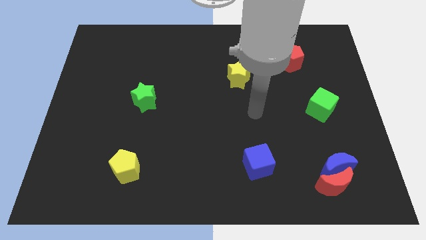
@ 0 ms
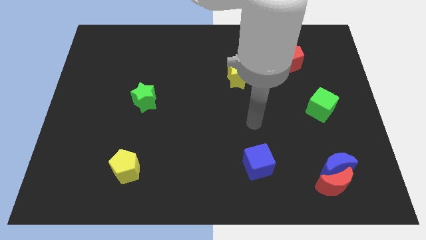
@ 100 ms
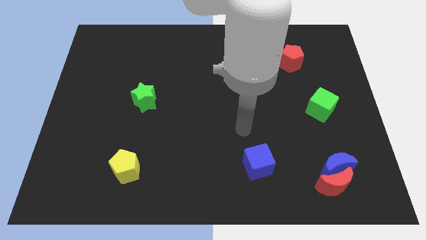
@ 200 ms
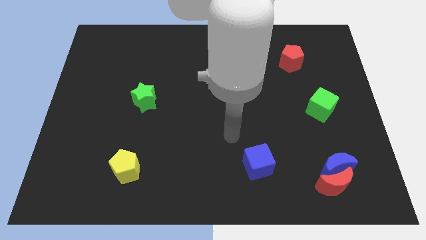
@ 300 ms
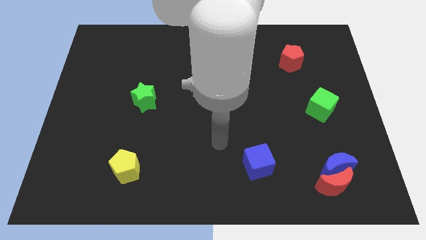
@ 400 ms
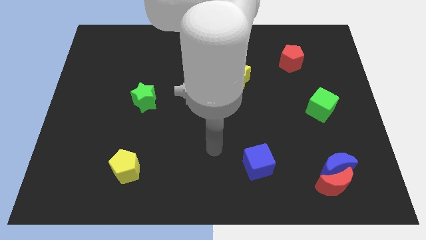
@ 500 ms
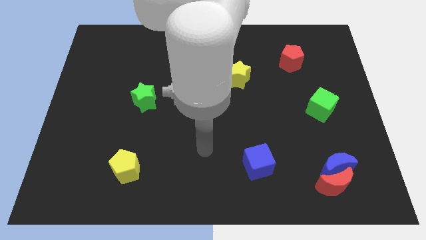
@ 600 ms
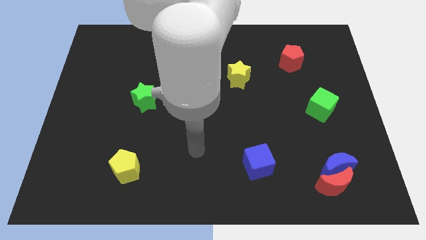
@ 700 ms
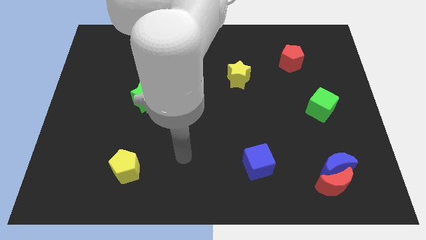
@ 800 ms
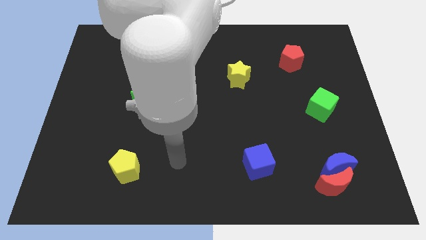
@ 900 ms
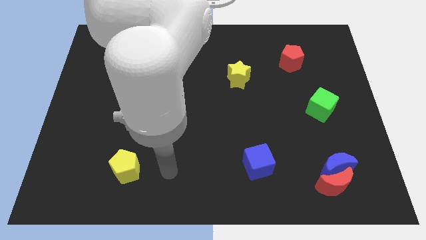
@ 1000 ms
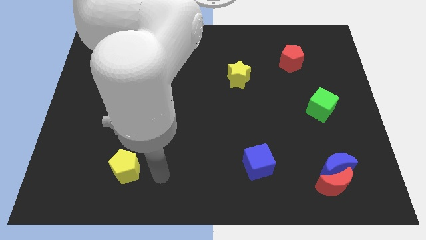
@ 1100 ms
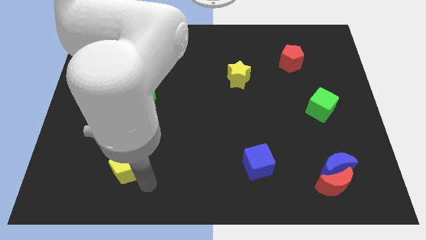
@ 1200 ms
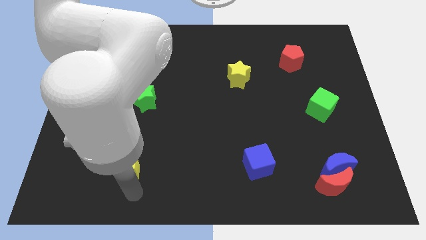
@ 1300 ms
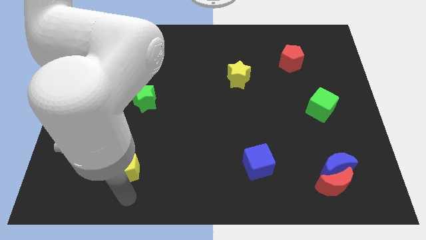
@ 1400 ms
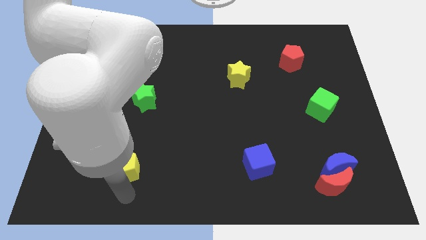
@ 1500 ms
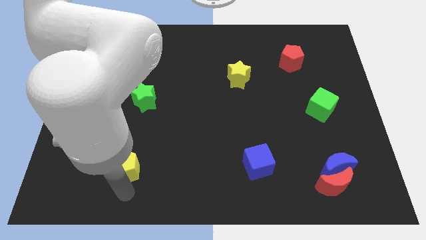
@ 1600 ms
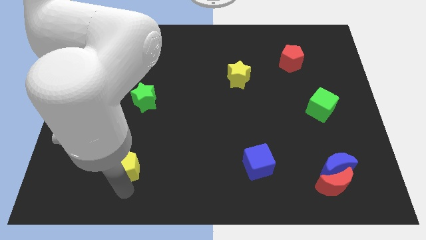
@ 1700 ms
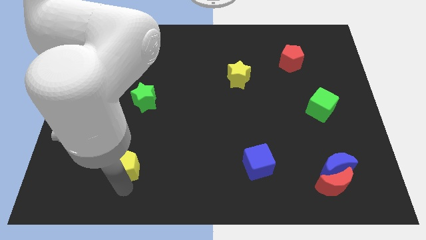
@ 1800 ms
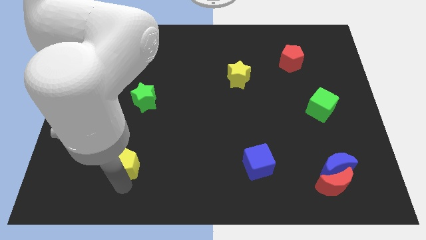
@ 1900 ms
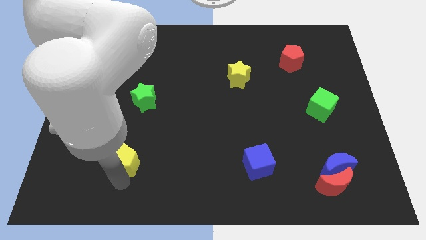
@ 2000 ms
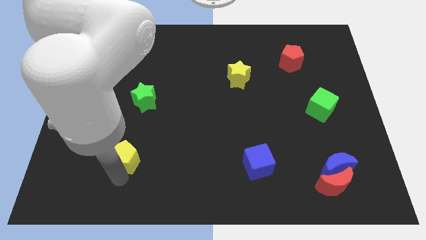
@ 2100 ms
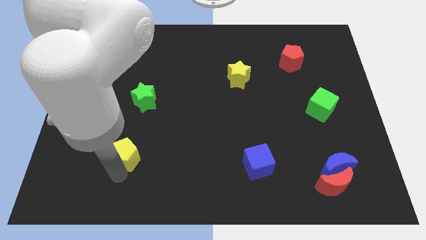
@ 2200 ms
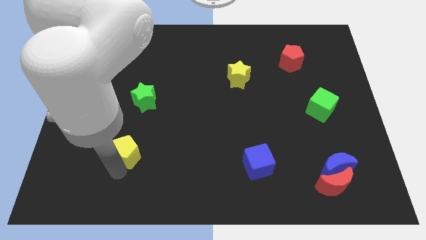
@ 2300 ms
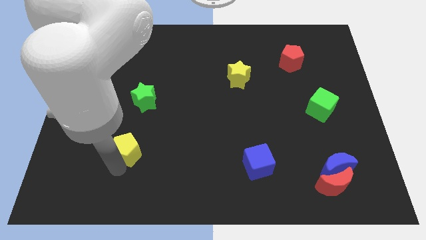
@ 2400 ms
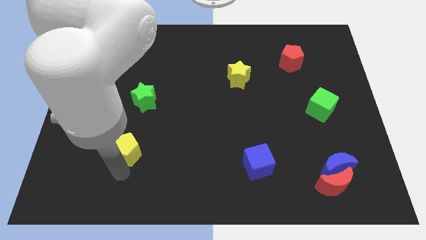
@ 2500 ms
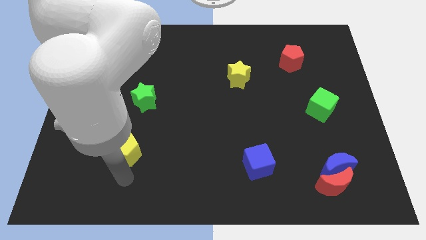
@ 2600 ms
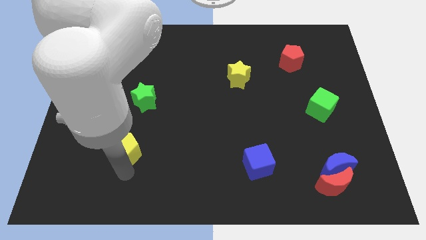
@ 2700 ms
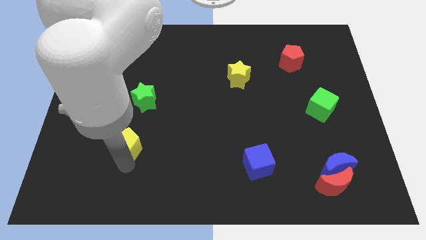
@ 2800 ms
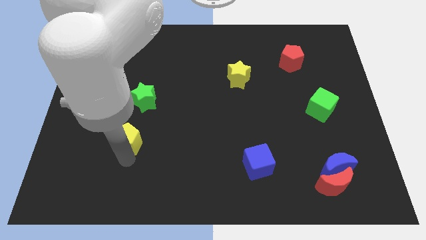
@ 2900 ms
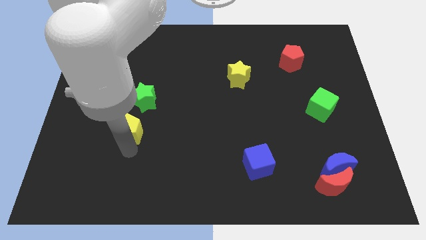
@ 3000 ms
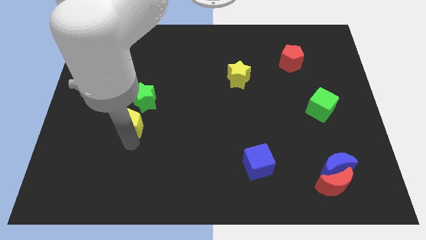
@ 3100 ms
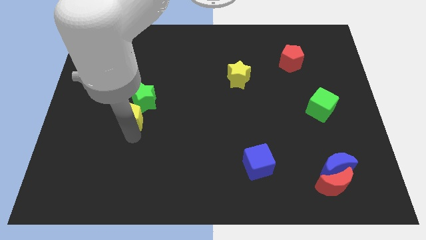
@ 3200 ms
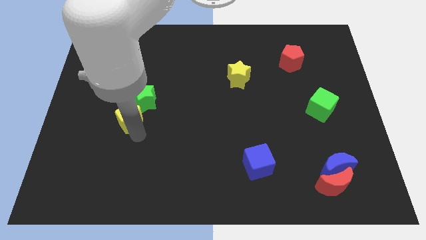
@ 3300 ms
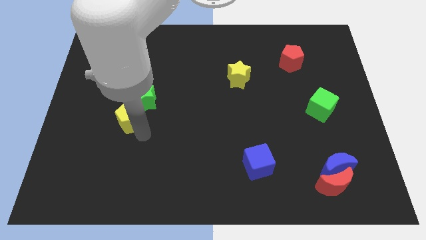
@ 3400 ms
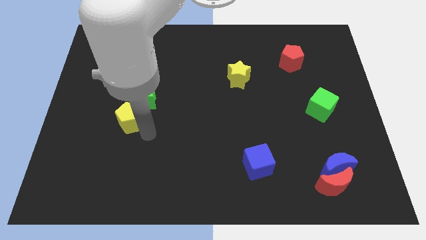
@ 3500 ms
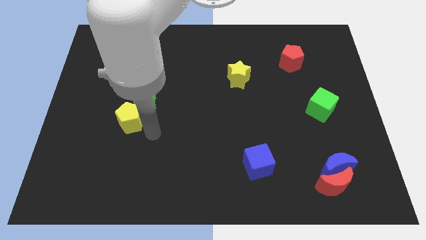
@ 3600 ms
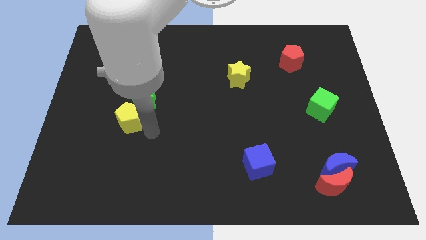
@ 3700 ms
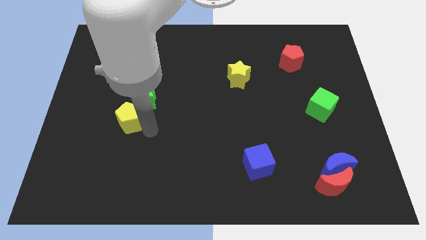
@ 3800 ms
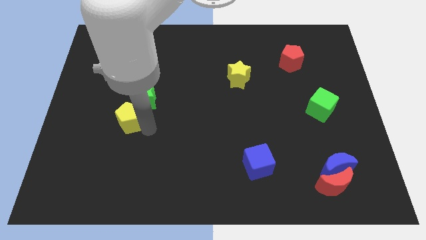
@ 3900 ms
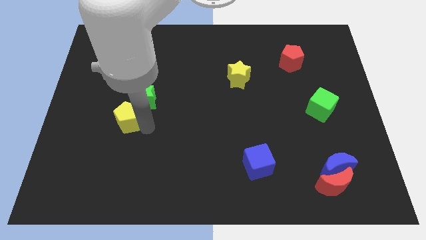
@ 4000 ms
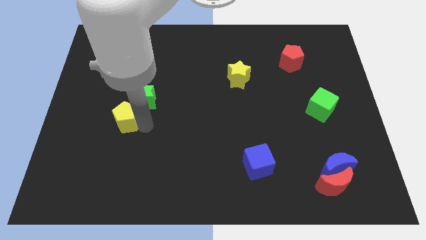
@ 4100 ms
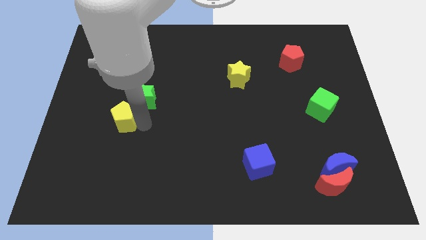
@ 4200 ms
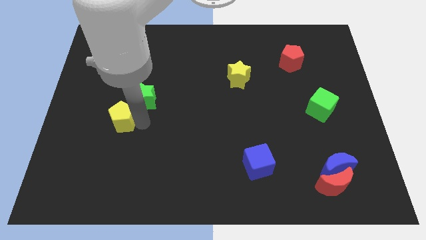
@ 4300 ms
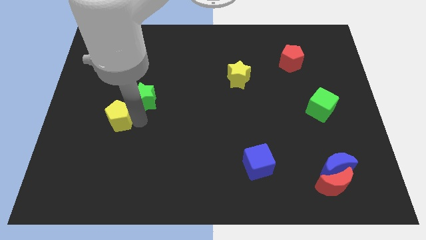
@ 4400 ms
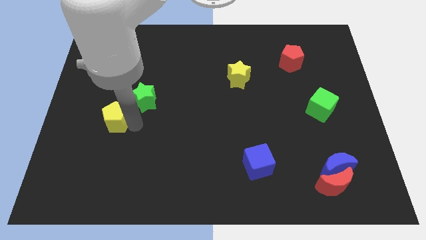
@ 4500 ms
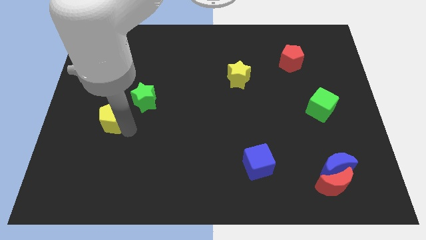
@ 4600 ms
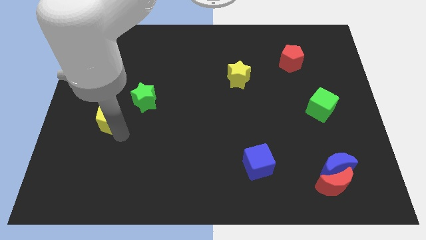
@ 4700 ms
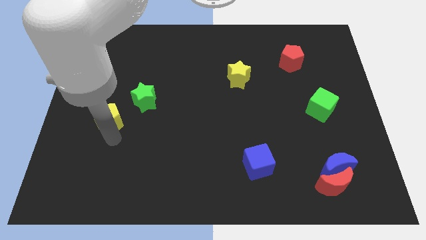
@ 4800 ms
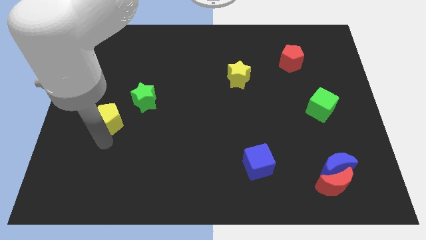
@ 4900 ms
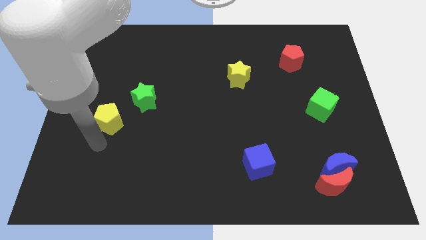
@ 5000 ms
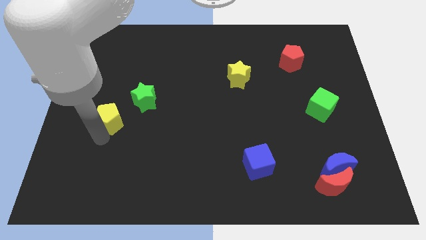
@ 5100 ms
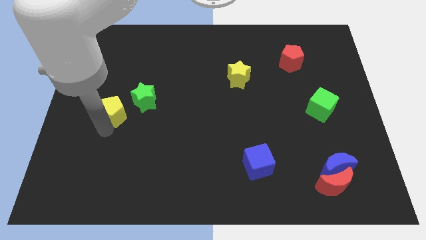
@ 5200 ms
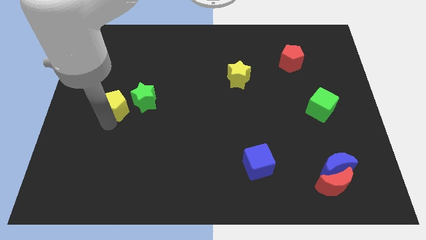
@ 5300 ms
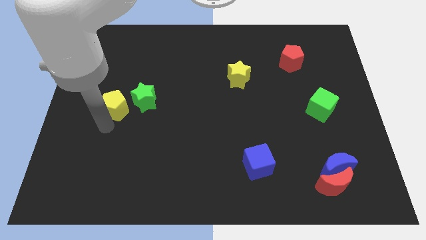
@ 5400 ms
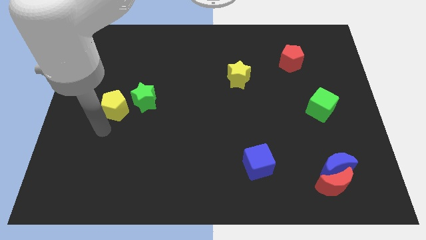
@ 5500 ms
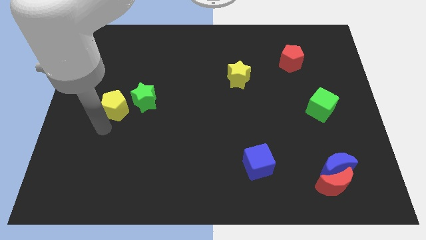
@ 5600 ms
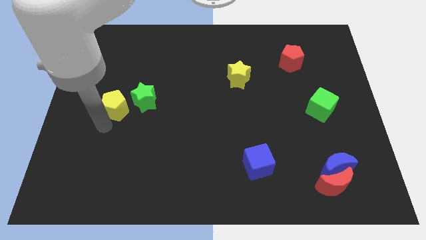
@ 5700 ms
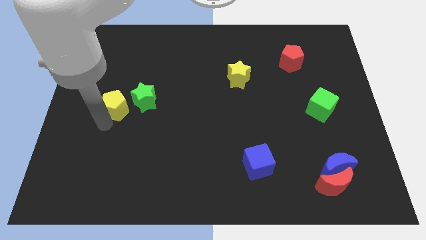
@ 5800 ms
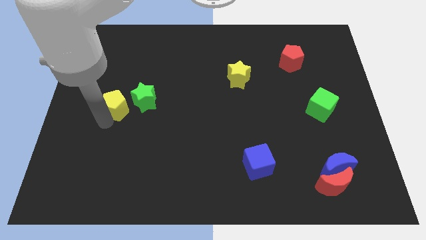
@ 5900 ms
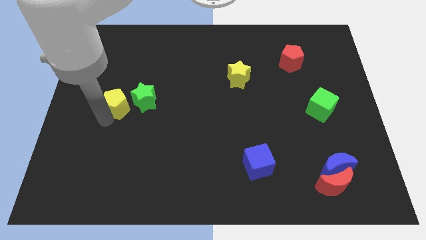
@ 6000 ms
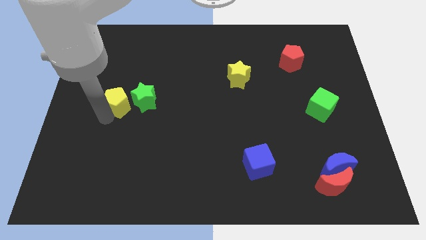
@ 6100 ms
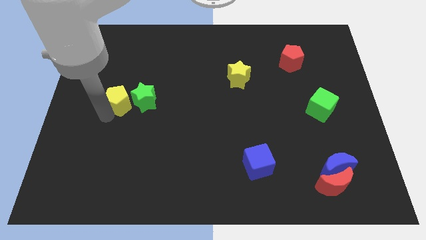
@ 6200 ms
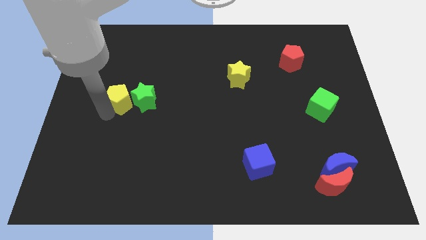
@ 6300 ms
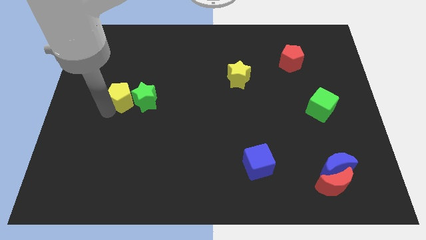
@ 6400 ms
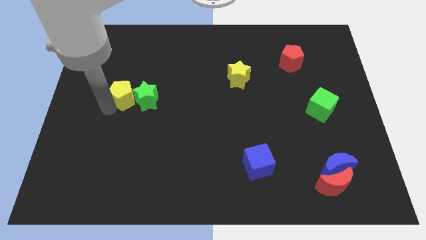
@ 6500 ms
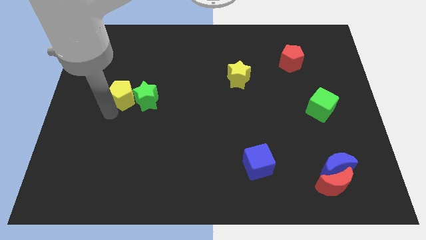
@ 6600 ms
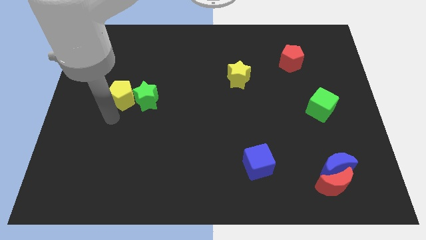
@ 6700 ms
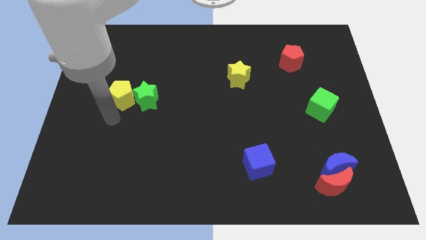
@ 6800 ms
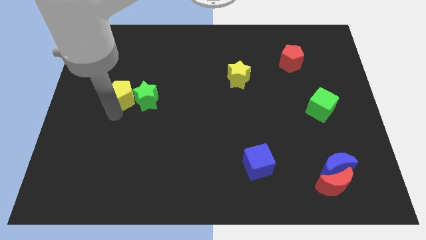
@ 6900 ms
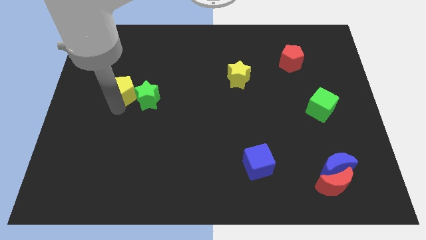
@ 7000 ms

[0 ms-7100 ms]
move the yellow pentagon upwards

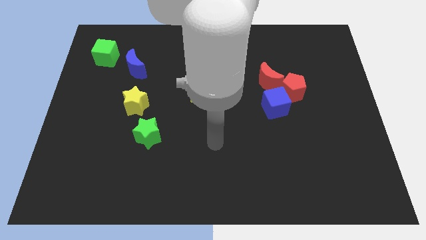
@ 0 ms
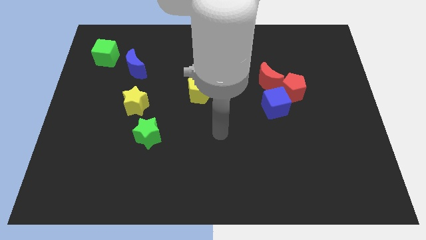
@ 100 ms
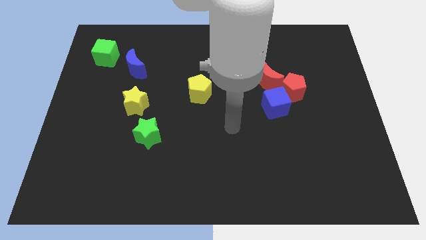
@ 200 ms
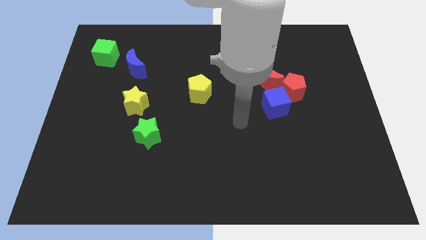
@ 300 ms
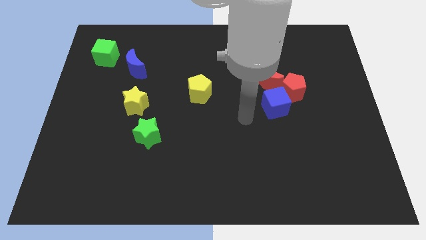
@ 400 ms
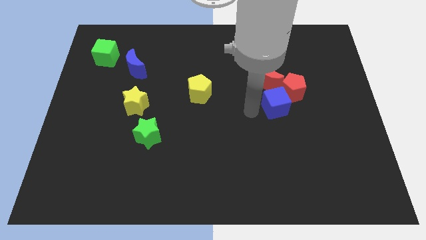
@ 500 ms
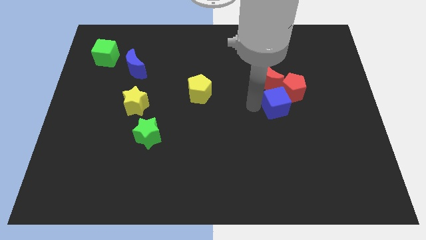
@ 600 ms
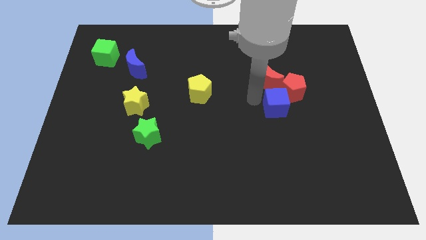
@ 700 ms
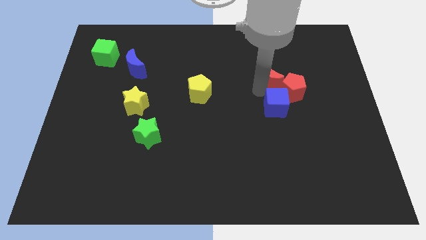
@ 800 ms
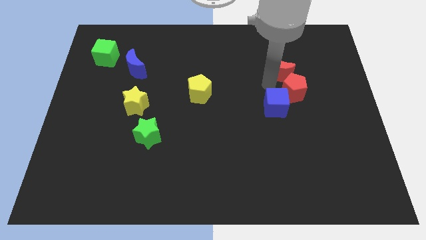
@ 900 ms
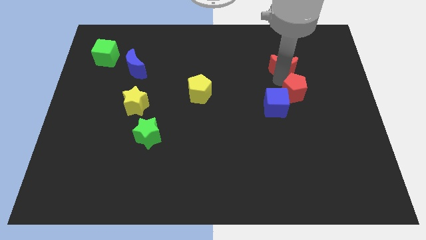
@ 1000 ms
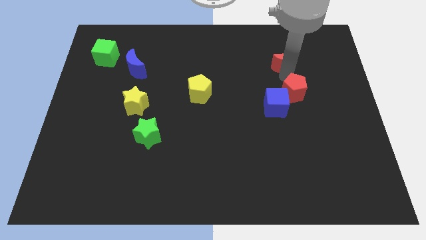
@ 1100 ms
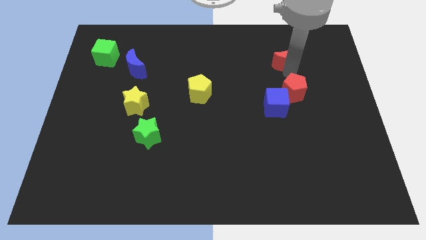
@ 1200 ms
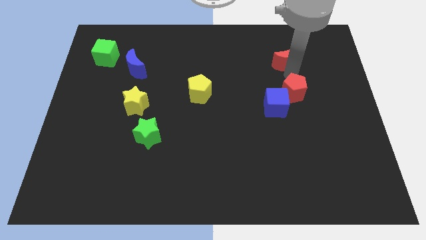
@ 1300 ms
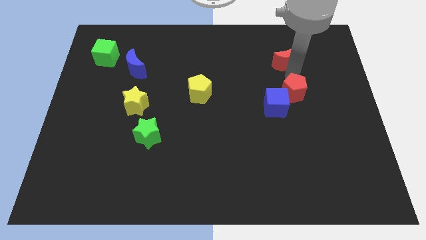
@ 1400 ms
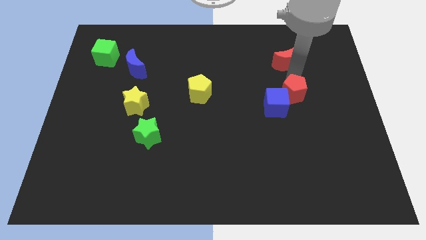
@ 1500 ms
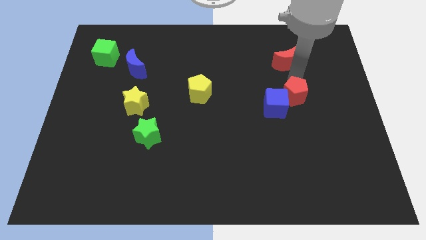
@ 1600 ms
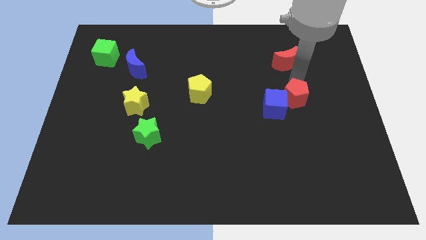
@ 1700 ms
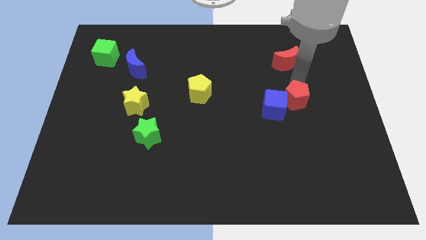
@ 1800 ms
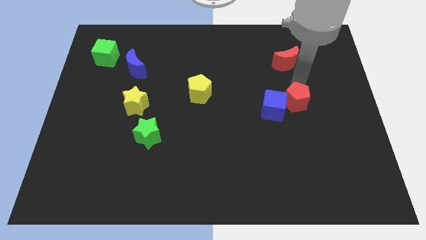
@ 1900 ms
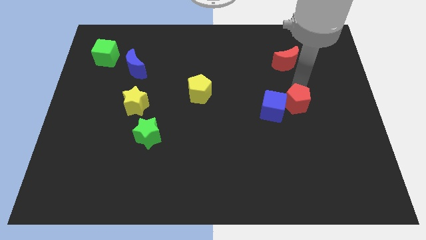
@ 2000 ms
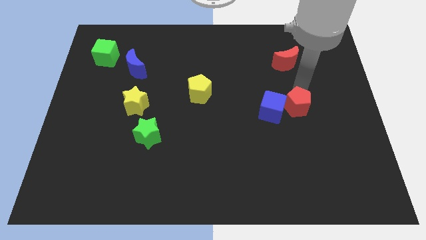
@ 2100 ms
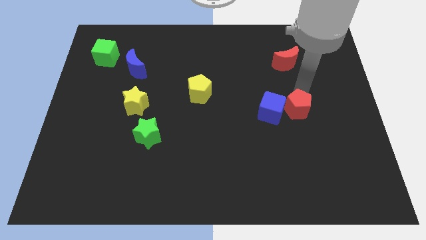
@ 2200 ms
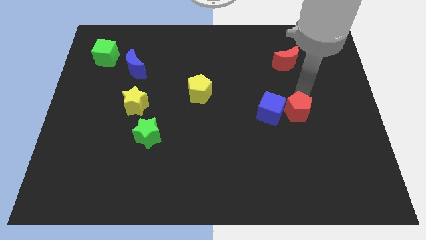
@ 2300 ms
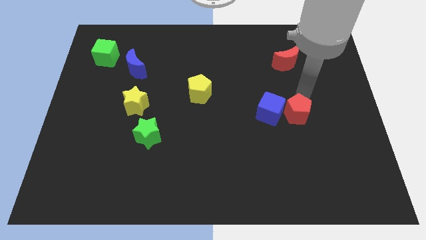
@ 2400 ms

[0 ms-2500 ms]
slightly move the red pentagon downwards
